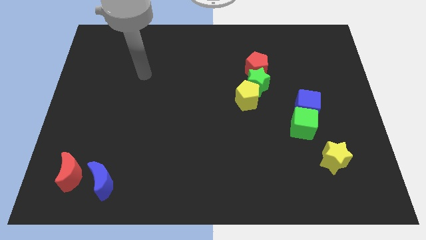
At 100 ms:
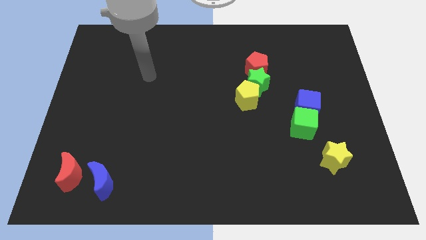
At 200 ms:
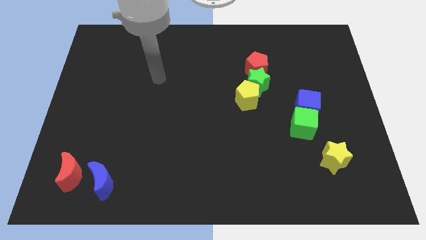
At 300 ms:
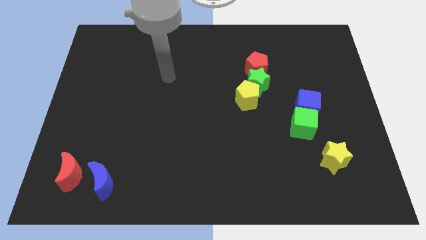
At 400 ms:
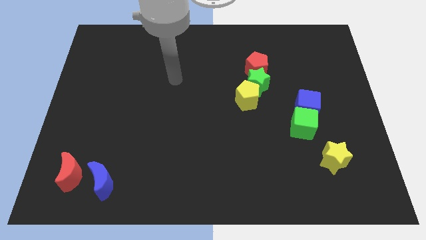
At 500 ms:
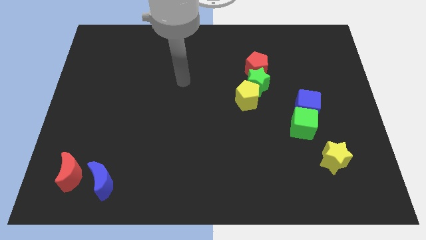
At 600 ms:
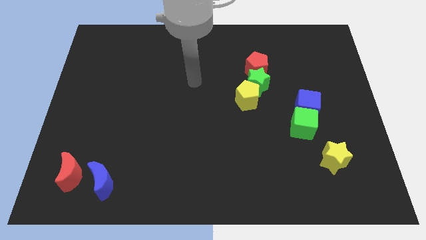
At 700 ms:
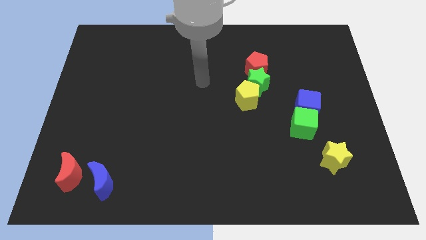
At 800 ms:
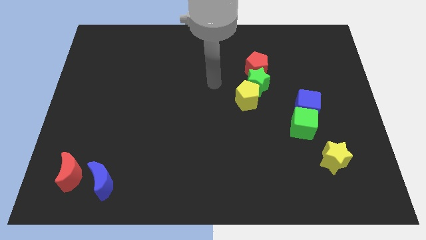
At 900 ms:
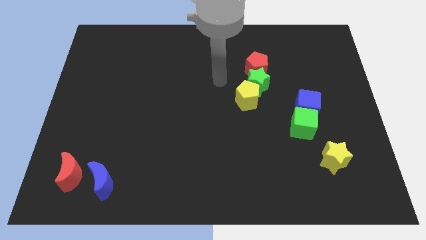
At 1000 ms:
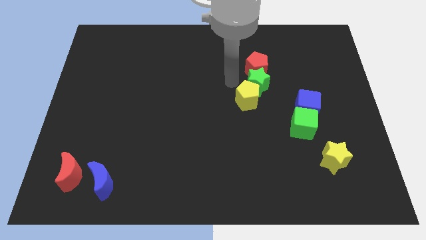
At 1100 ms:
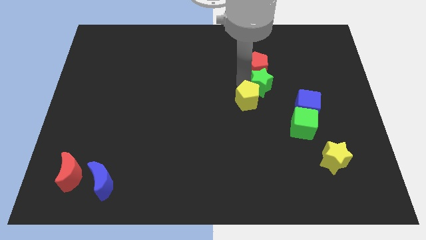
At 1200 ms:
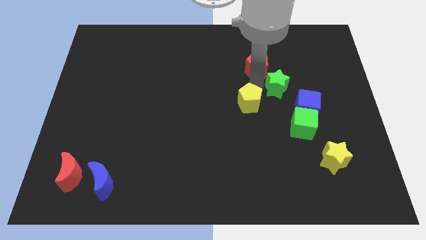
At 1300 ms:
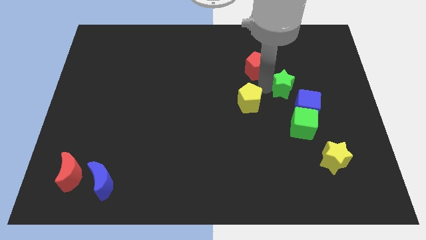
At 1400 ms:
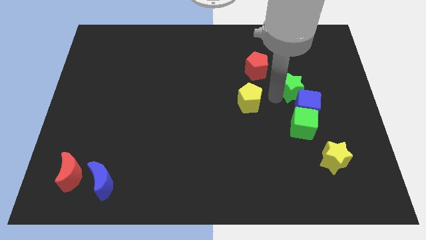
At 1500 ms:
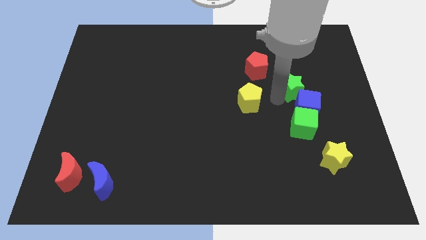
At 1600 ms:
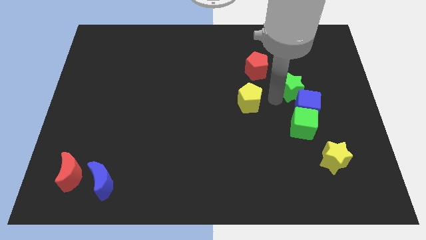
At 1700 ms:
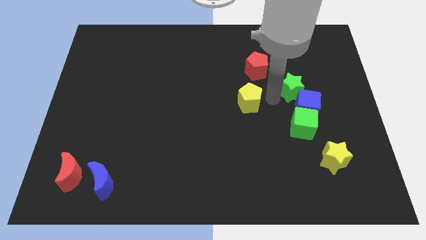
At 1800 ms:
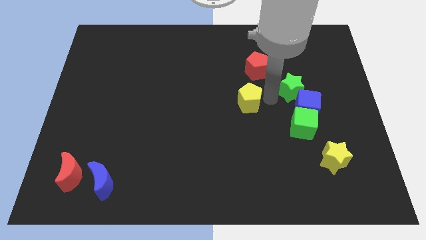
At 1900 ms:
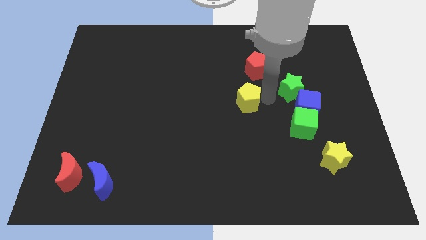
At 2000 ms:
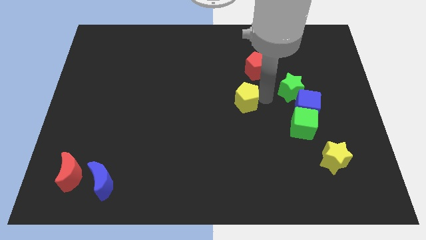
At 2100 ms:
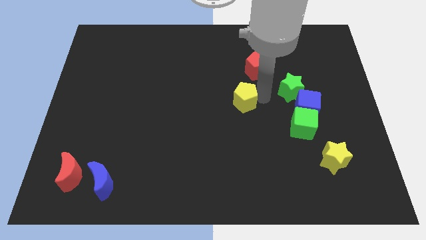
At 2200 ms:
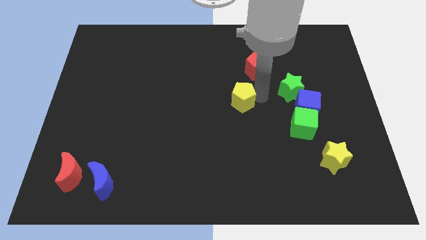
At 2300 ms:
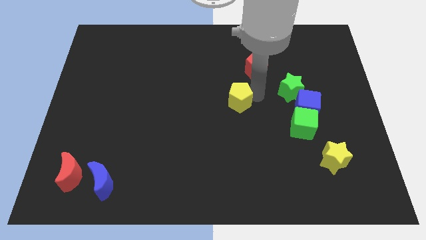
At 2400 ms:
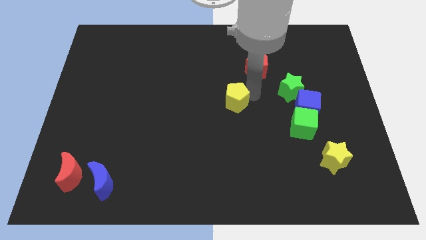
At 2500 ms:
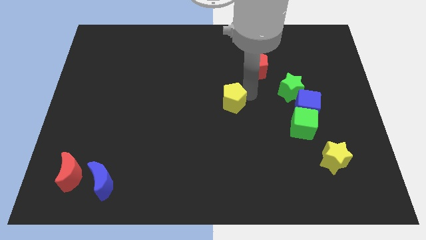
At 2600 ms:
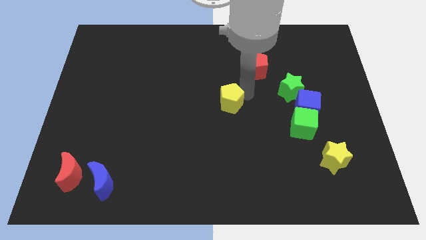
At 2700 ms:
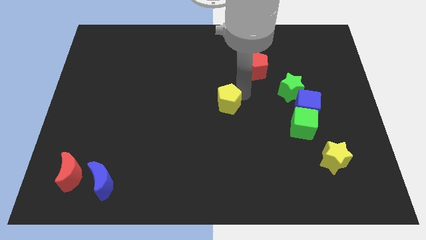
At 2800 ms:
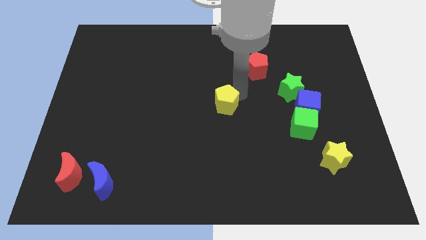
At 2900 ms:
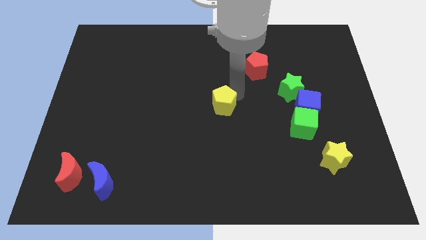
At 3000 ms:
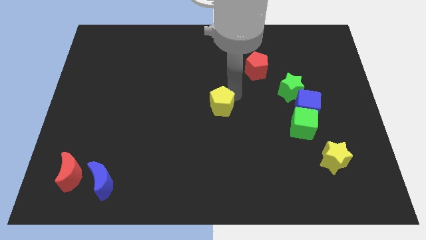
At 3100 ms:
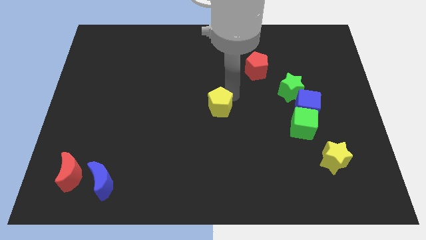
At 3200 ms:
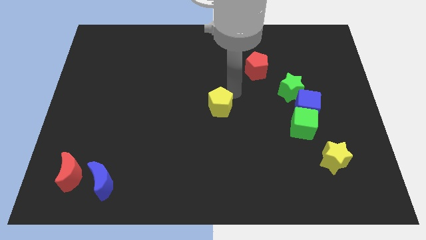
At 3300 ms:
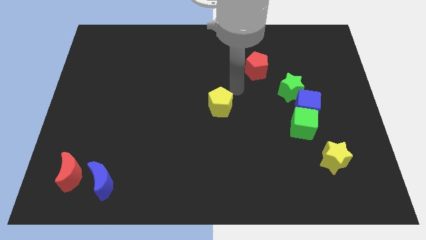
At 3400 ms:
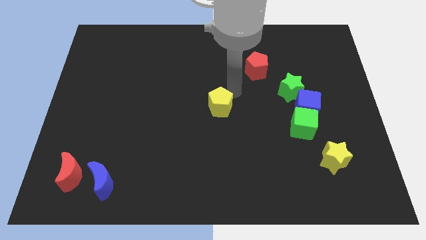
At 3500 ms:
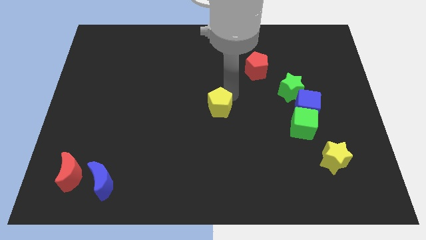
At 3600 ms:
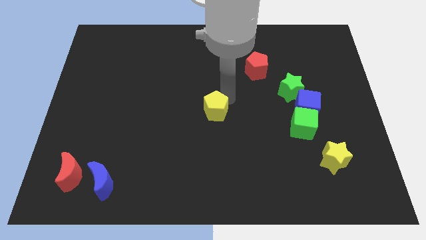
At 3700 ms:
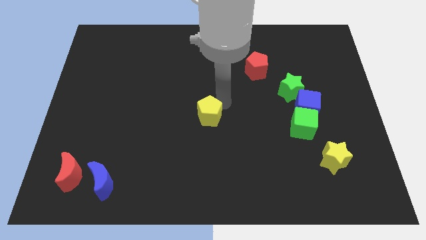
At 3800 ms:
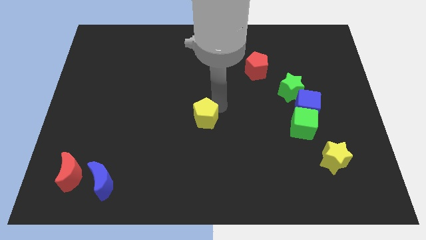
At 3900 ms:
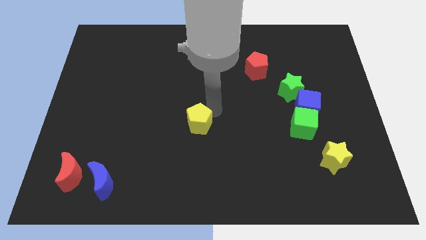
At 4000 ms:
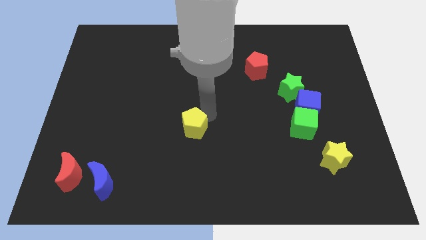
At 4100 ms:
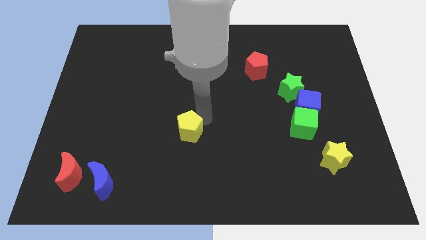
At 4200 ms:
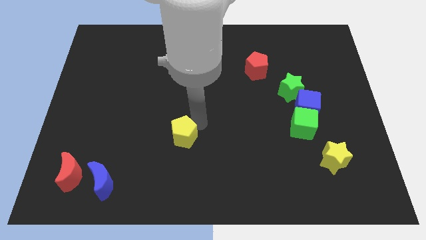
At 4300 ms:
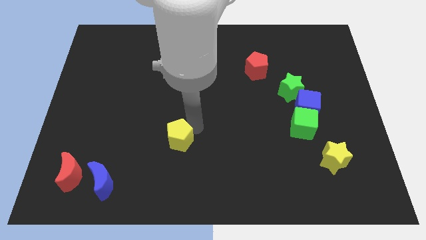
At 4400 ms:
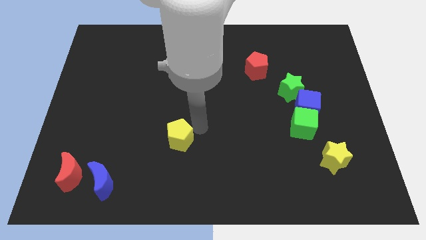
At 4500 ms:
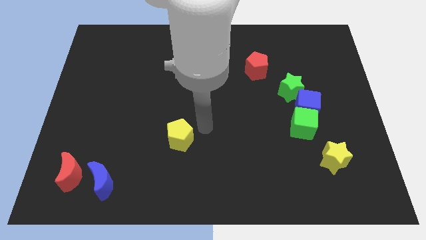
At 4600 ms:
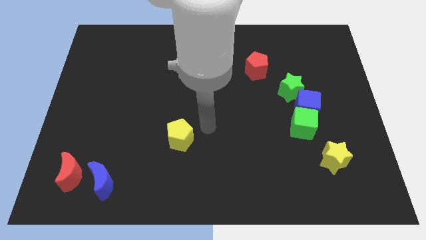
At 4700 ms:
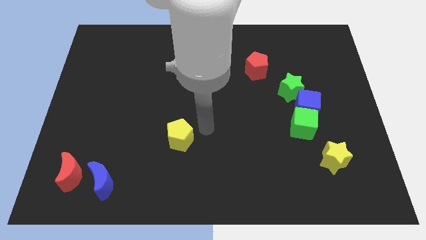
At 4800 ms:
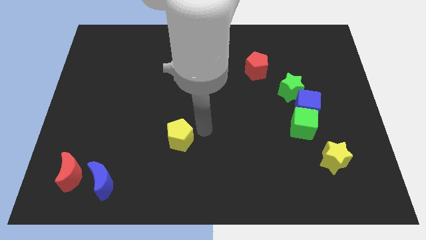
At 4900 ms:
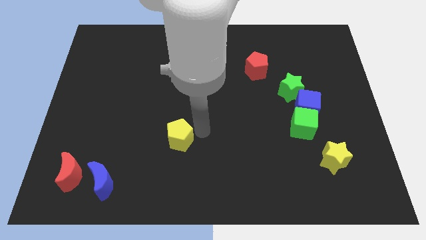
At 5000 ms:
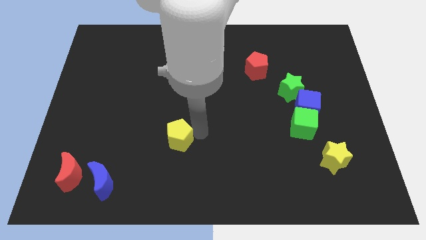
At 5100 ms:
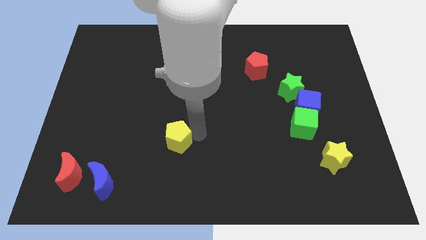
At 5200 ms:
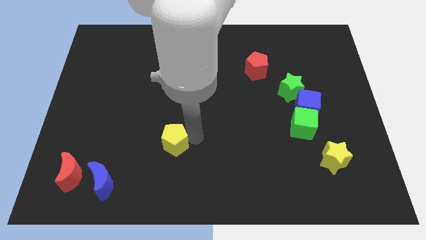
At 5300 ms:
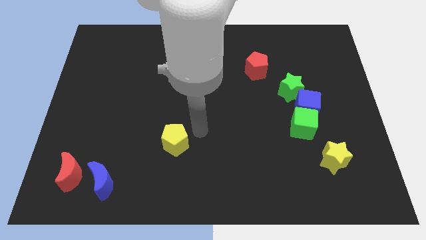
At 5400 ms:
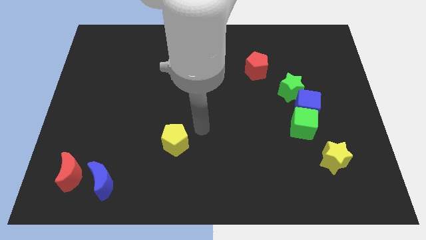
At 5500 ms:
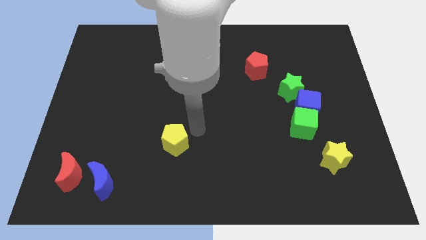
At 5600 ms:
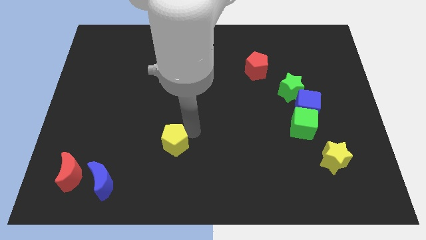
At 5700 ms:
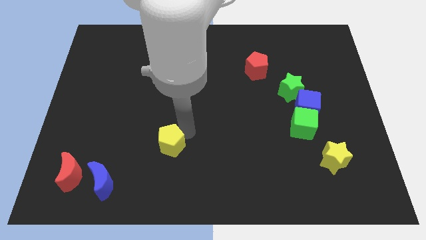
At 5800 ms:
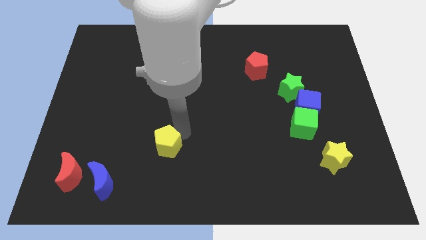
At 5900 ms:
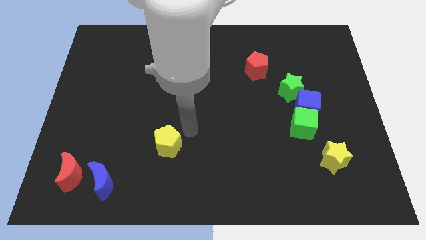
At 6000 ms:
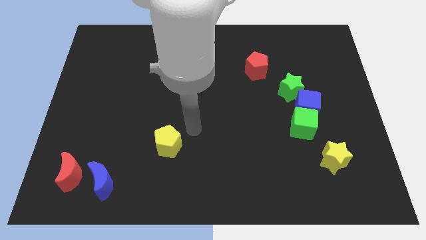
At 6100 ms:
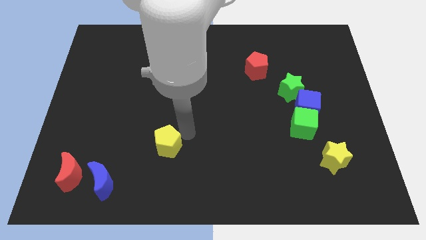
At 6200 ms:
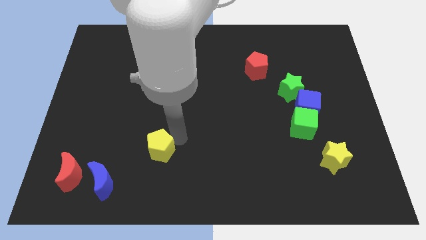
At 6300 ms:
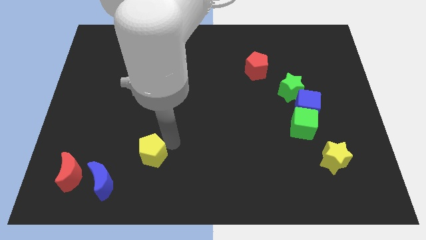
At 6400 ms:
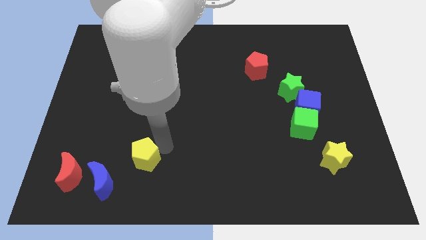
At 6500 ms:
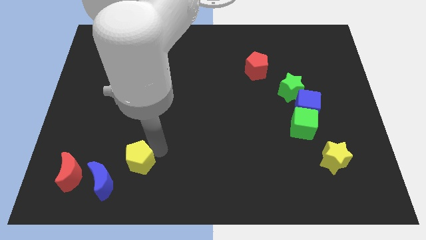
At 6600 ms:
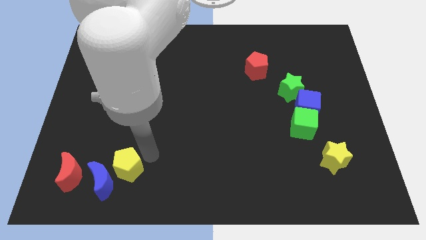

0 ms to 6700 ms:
move the yellow pentagon to the blue moon
